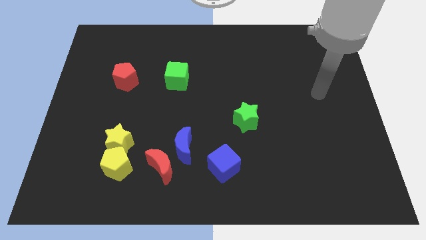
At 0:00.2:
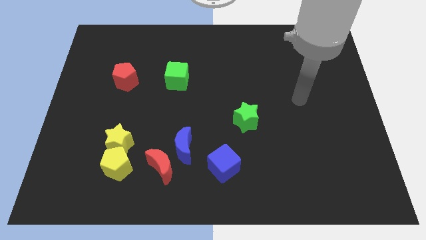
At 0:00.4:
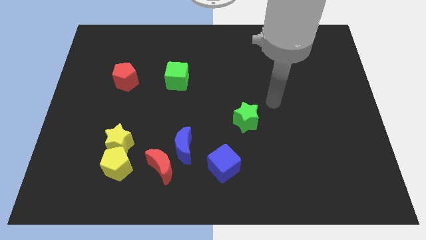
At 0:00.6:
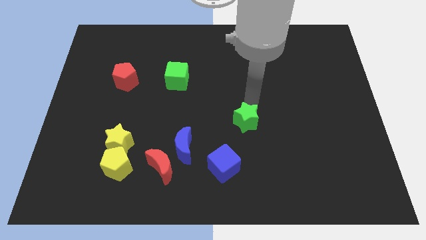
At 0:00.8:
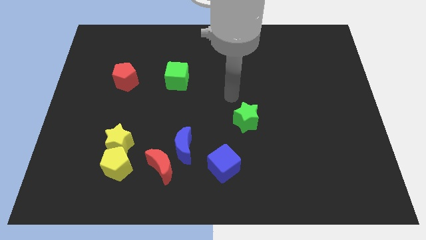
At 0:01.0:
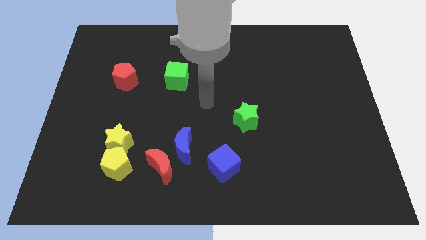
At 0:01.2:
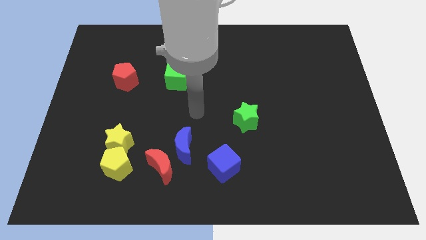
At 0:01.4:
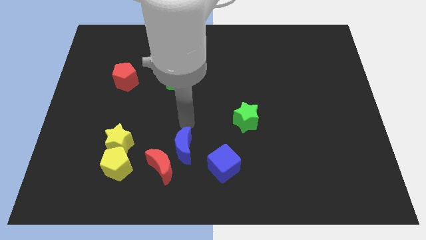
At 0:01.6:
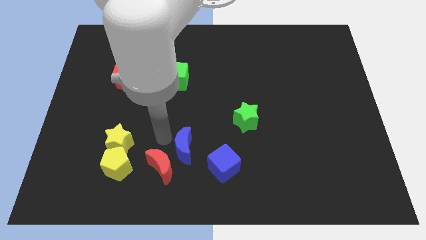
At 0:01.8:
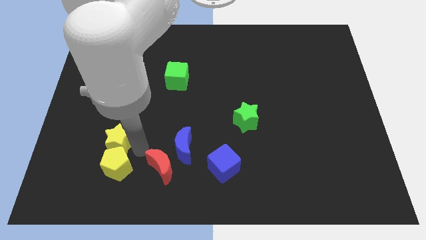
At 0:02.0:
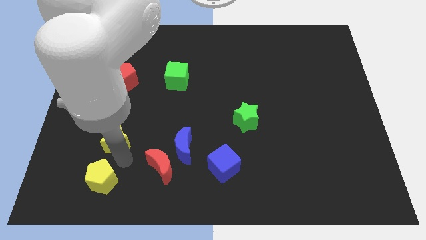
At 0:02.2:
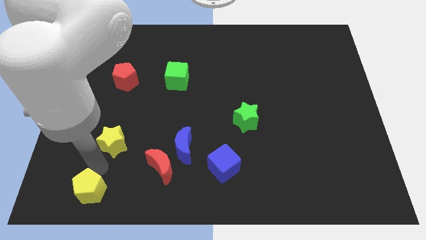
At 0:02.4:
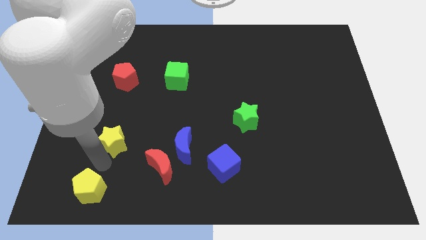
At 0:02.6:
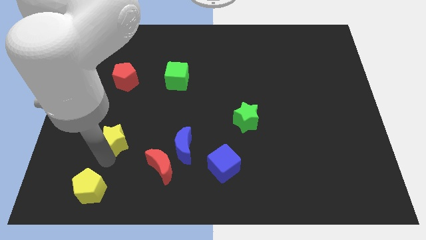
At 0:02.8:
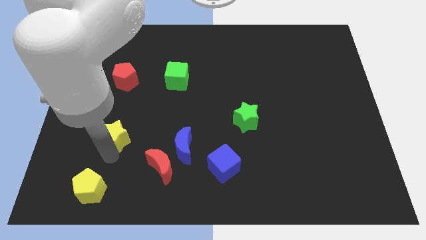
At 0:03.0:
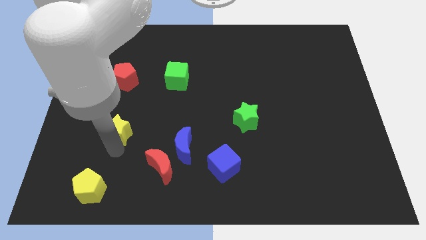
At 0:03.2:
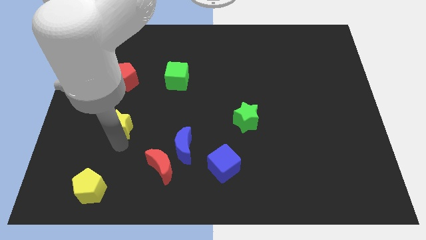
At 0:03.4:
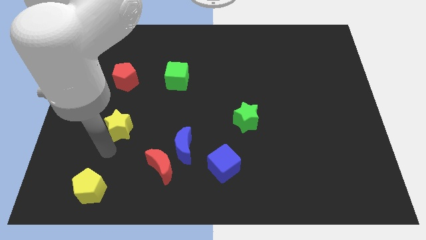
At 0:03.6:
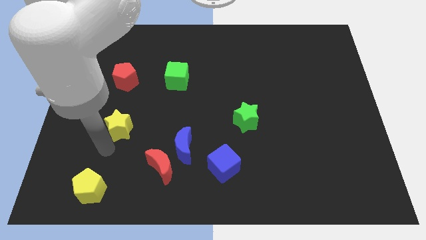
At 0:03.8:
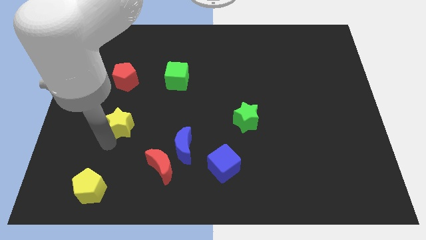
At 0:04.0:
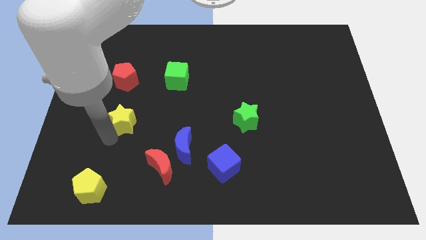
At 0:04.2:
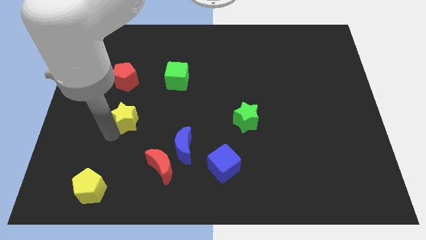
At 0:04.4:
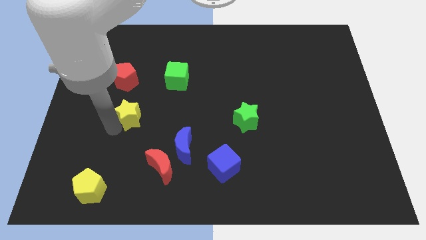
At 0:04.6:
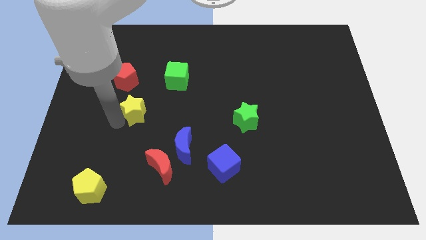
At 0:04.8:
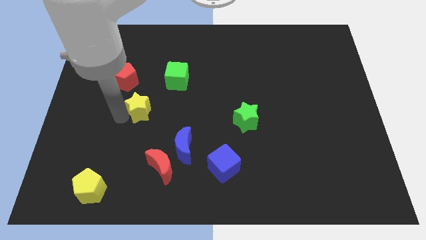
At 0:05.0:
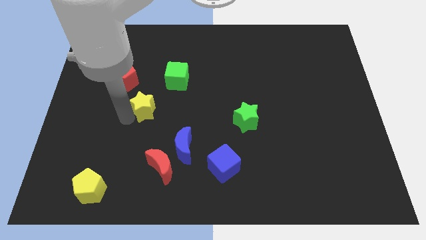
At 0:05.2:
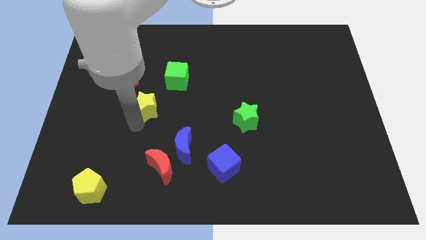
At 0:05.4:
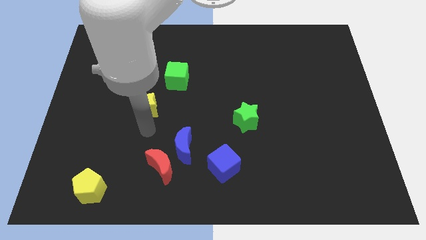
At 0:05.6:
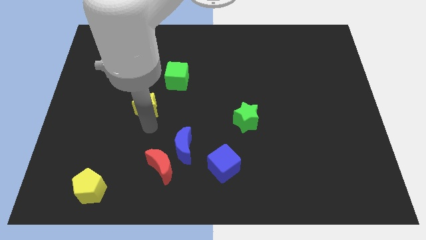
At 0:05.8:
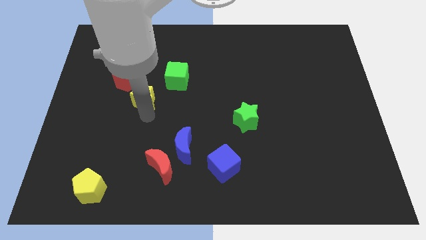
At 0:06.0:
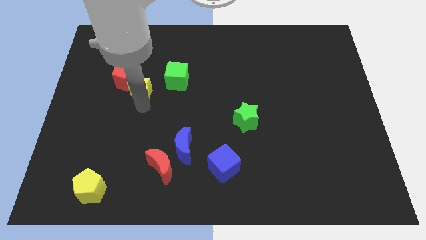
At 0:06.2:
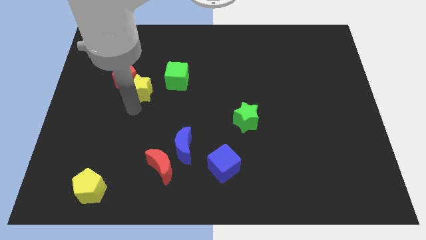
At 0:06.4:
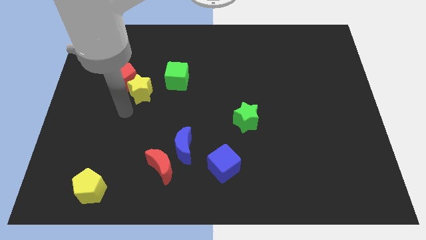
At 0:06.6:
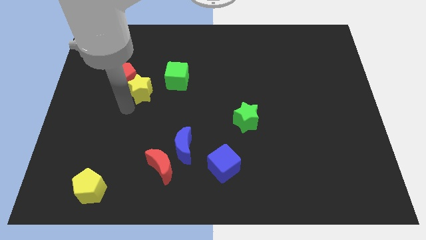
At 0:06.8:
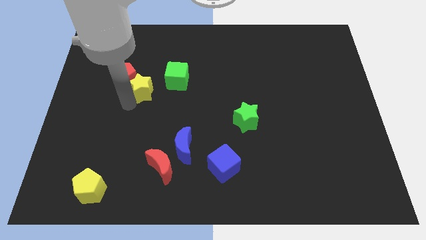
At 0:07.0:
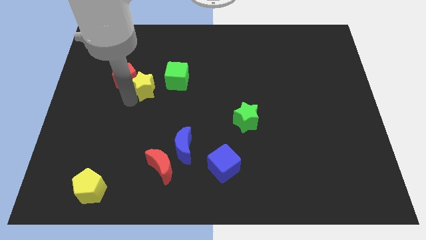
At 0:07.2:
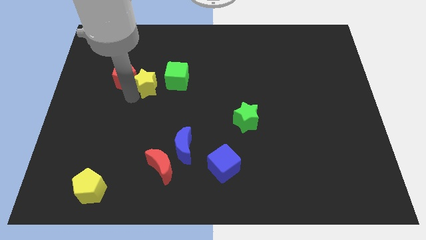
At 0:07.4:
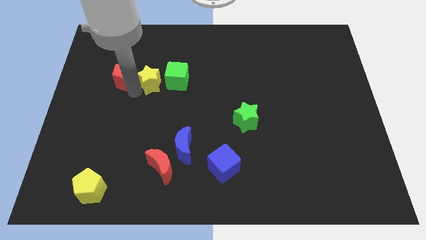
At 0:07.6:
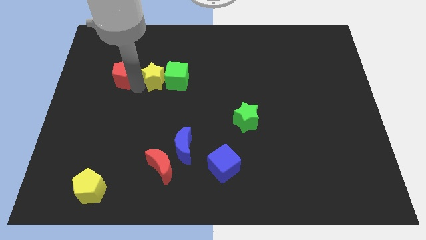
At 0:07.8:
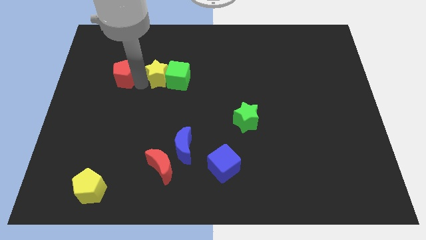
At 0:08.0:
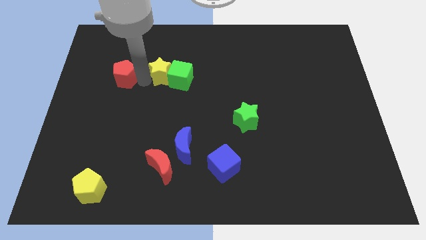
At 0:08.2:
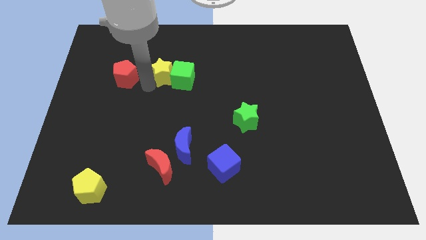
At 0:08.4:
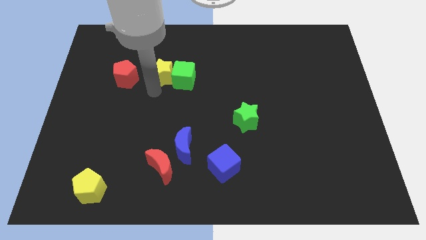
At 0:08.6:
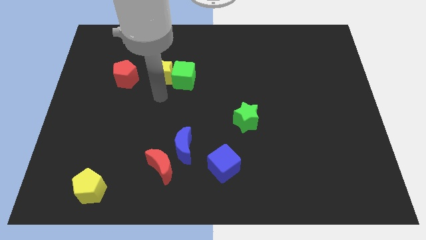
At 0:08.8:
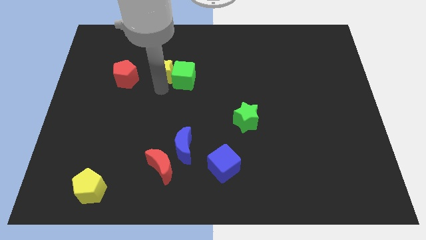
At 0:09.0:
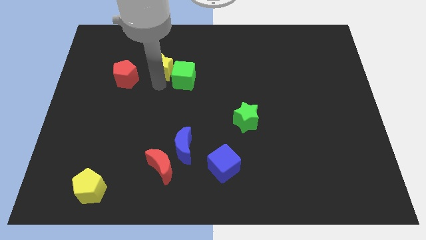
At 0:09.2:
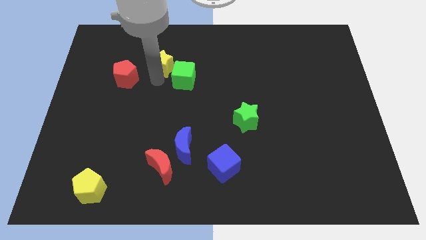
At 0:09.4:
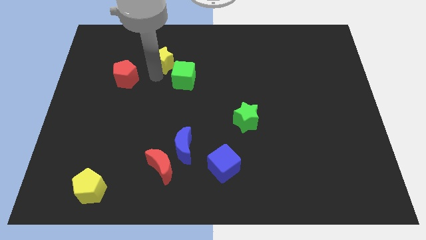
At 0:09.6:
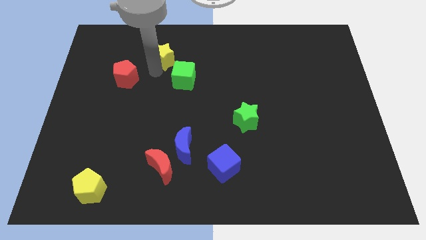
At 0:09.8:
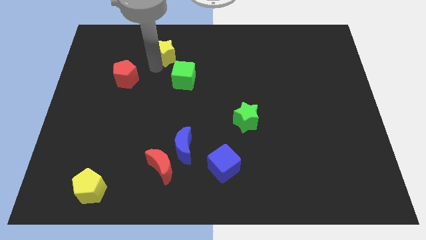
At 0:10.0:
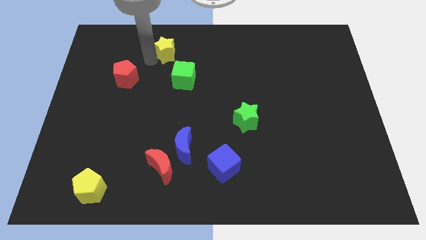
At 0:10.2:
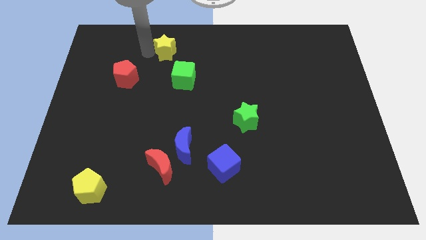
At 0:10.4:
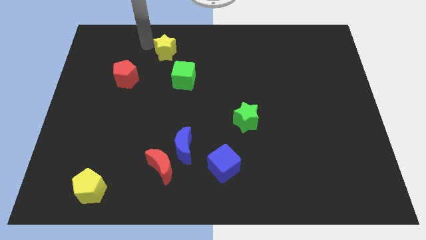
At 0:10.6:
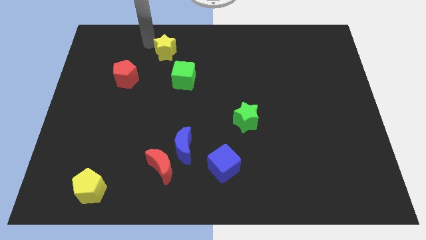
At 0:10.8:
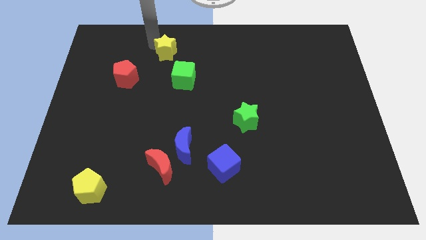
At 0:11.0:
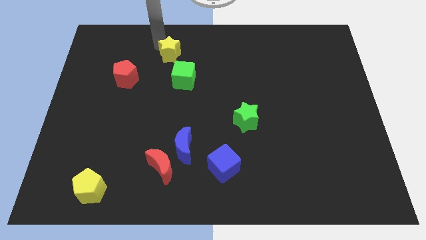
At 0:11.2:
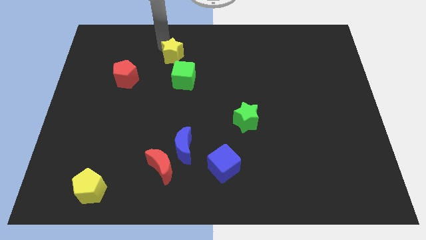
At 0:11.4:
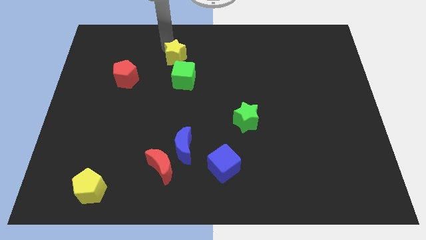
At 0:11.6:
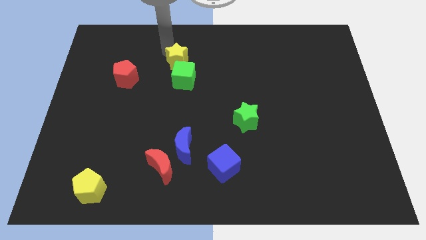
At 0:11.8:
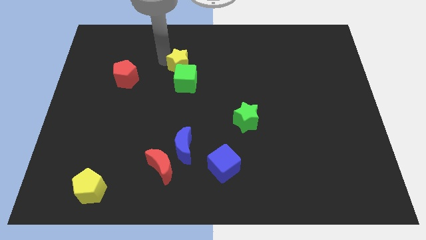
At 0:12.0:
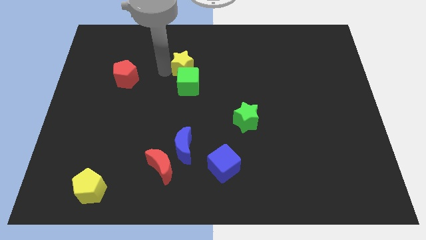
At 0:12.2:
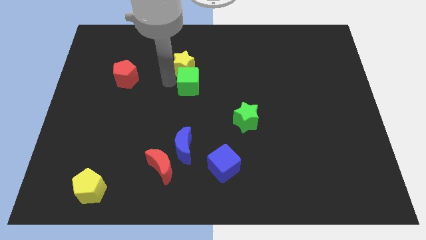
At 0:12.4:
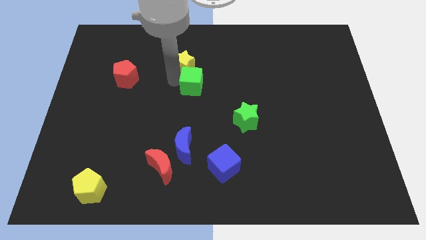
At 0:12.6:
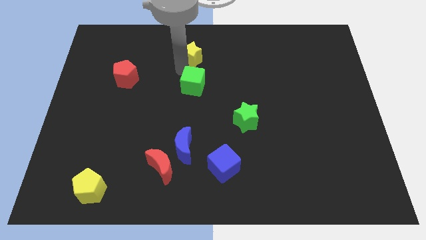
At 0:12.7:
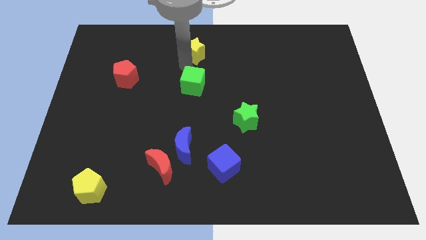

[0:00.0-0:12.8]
push the yellow star to the towards your base
